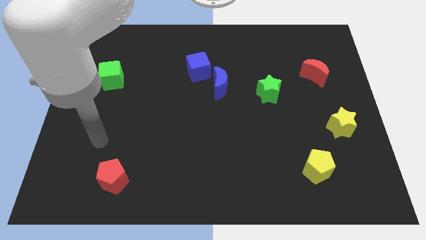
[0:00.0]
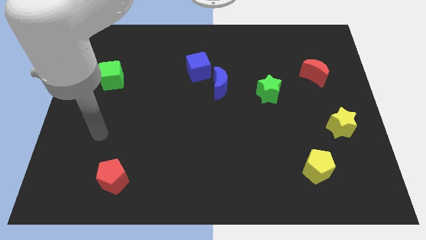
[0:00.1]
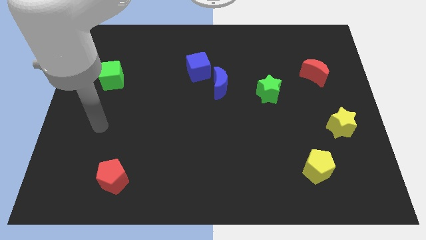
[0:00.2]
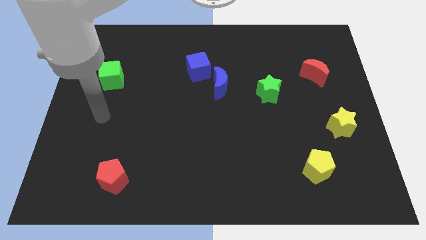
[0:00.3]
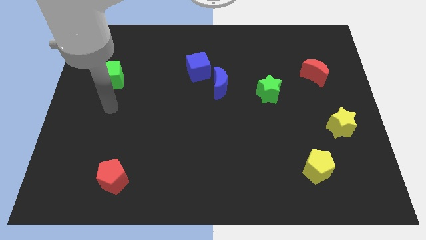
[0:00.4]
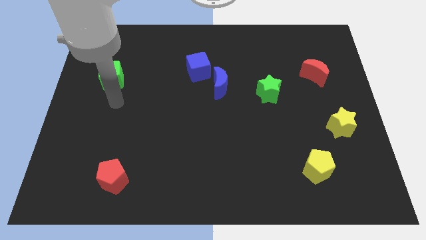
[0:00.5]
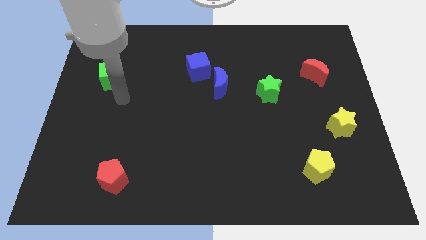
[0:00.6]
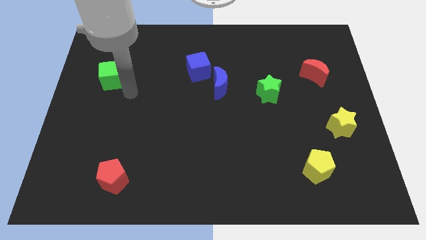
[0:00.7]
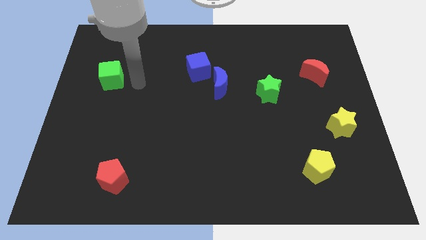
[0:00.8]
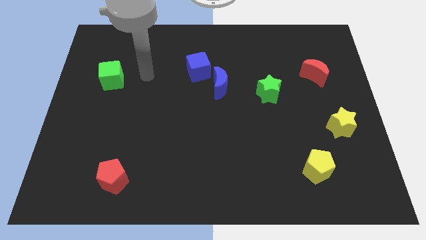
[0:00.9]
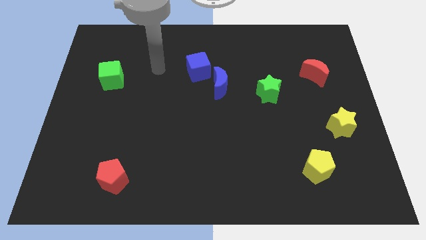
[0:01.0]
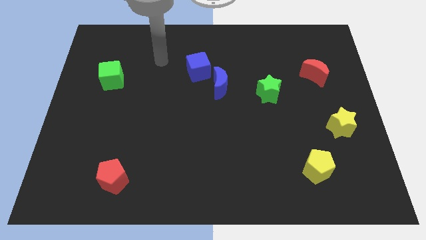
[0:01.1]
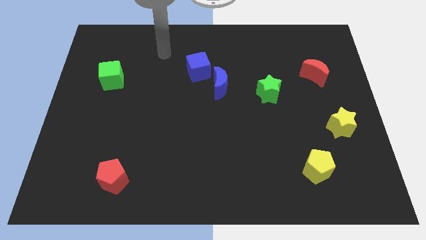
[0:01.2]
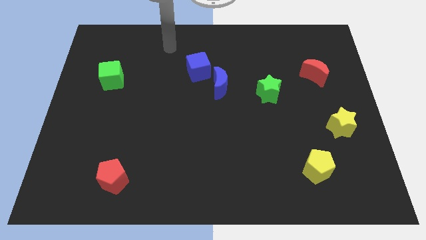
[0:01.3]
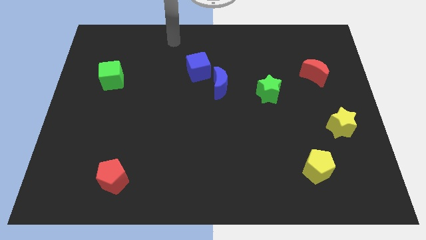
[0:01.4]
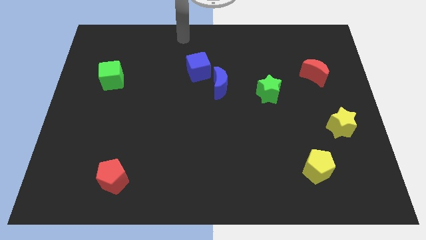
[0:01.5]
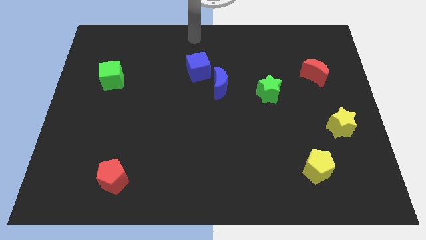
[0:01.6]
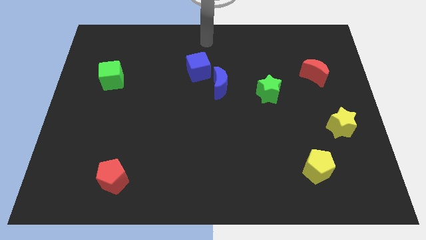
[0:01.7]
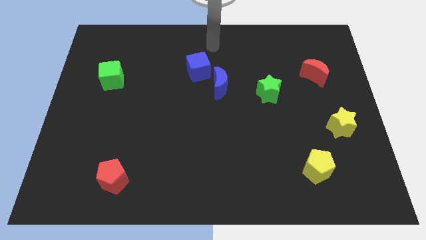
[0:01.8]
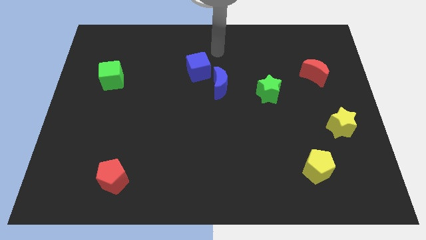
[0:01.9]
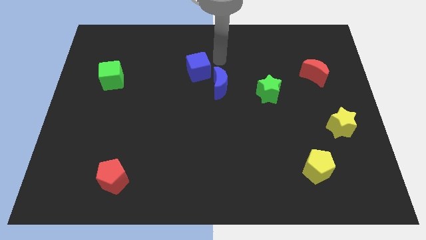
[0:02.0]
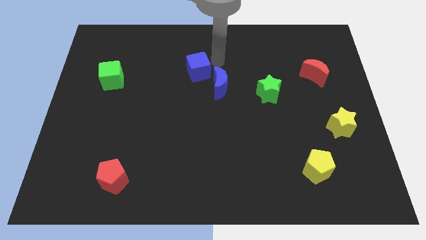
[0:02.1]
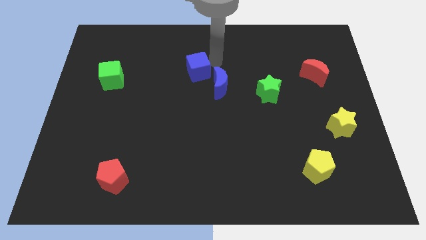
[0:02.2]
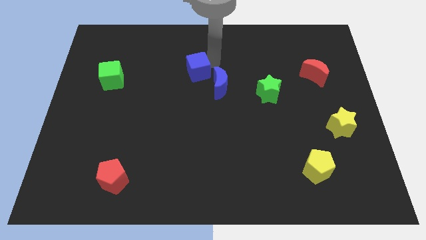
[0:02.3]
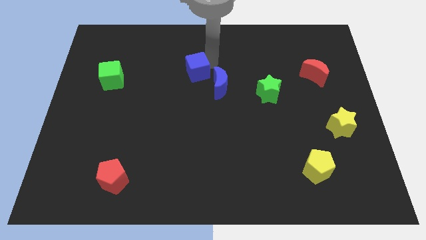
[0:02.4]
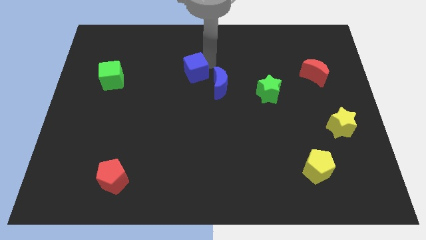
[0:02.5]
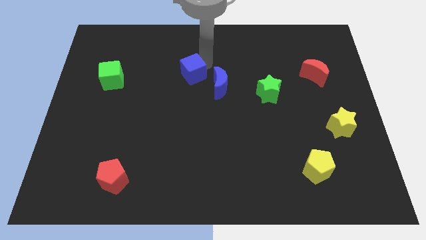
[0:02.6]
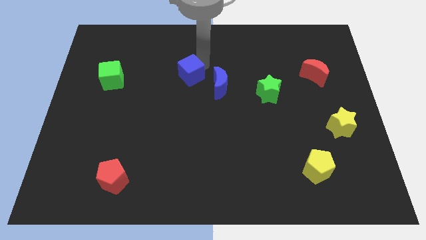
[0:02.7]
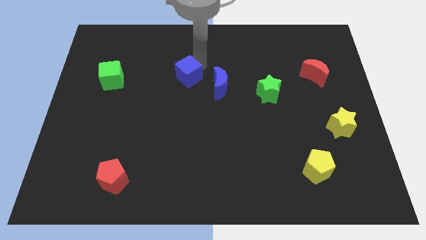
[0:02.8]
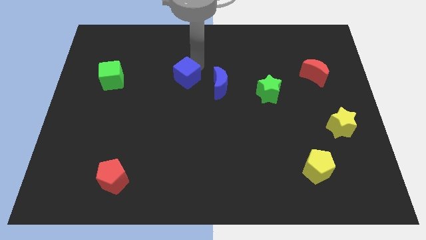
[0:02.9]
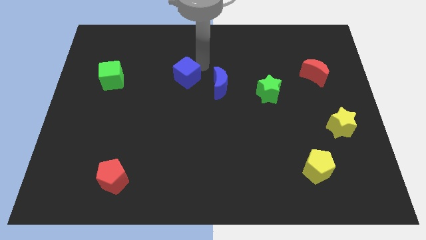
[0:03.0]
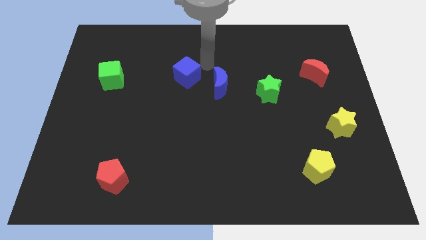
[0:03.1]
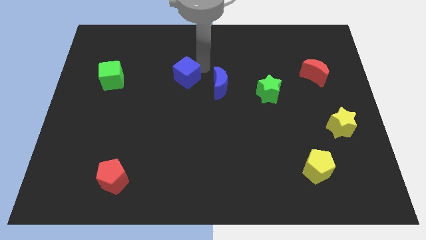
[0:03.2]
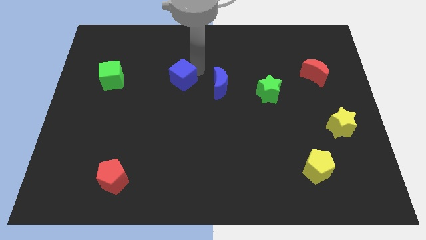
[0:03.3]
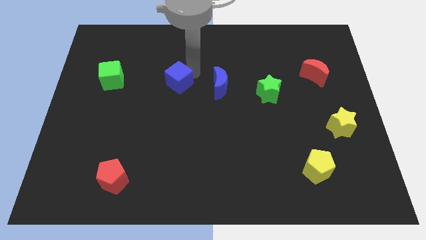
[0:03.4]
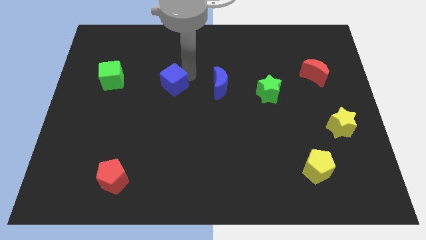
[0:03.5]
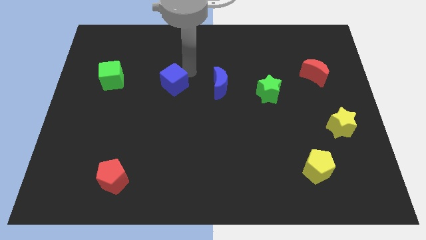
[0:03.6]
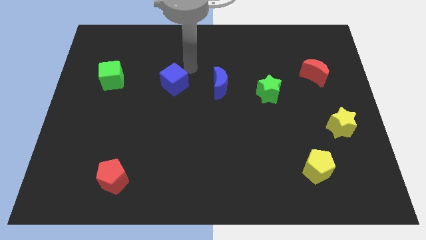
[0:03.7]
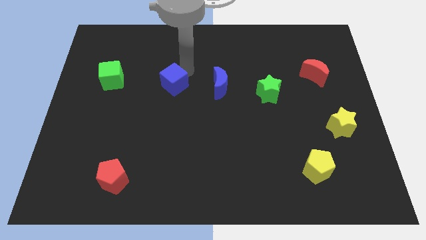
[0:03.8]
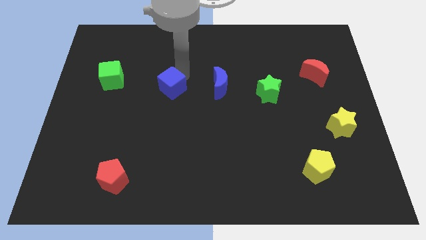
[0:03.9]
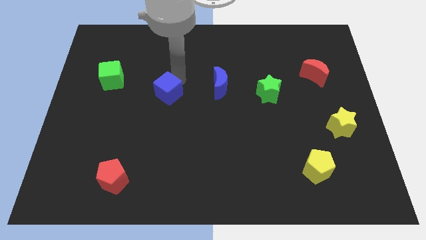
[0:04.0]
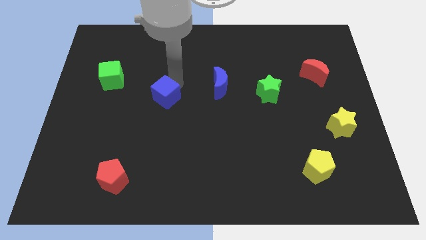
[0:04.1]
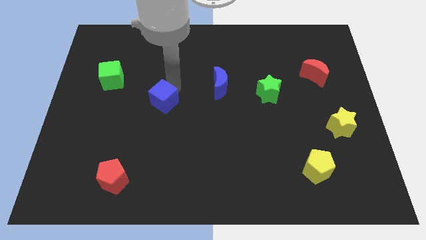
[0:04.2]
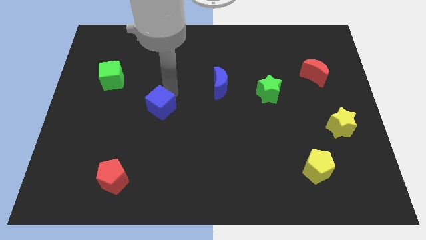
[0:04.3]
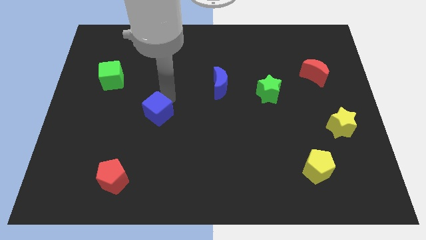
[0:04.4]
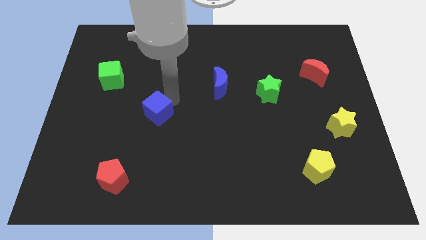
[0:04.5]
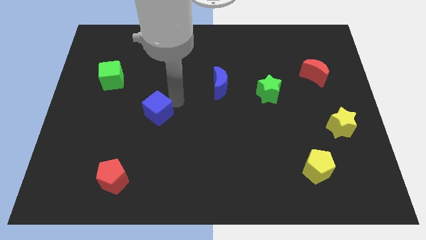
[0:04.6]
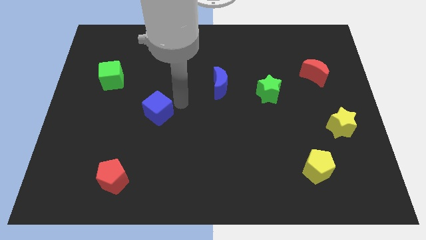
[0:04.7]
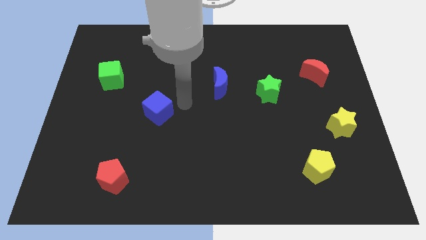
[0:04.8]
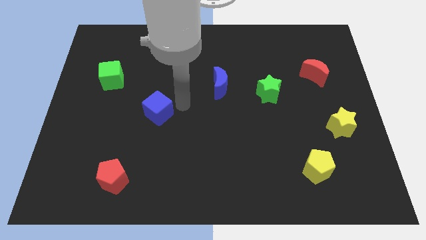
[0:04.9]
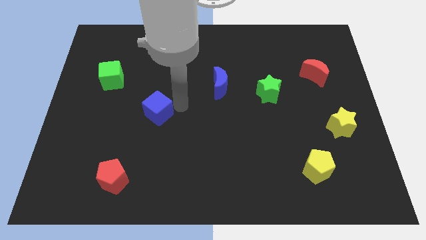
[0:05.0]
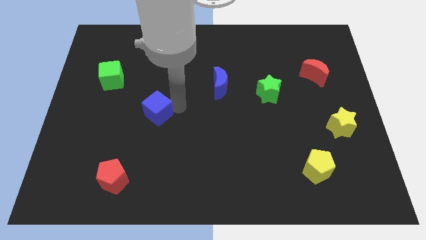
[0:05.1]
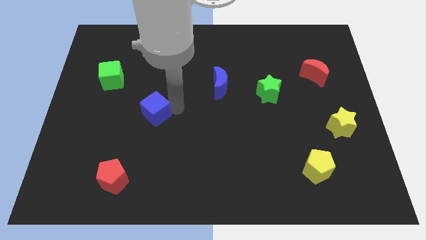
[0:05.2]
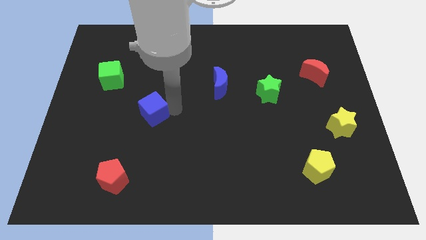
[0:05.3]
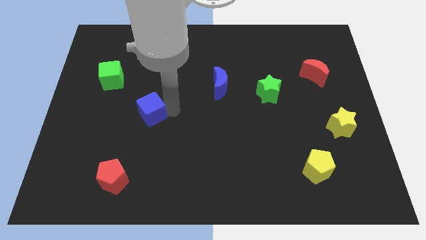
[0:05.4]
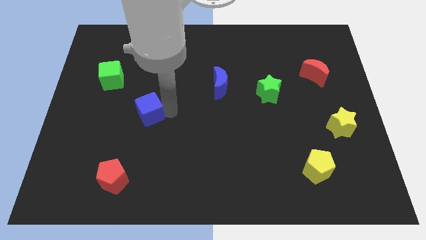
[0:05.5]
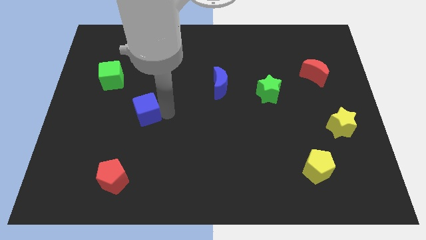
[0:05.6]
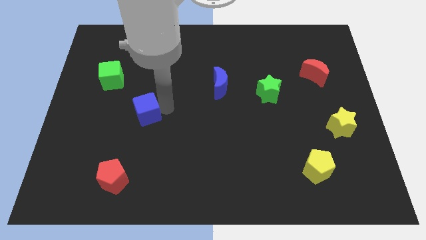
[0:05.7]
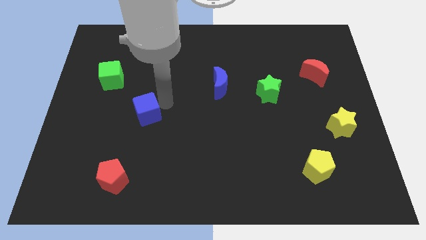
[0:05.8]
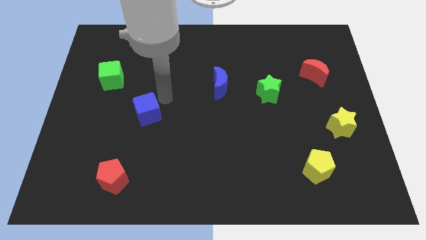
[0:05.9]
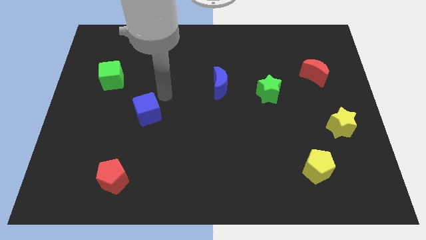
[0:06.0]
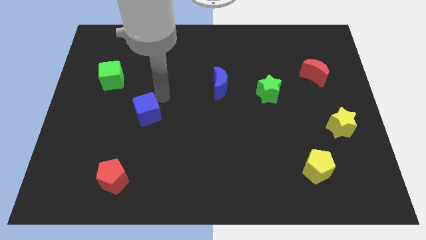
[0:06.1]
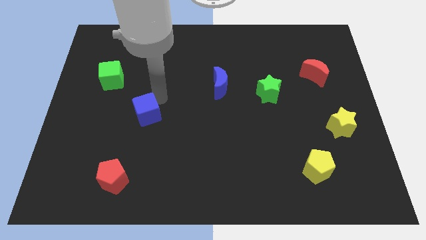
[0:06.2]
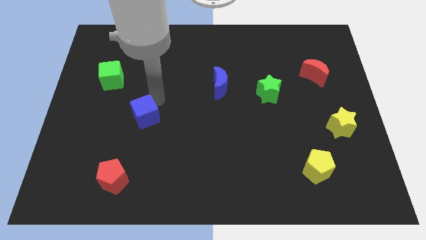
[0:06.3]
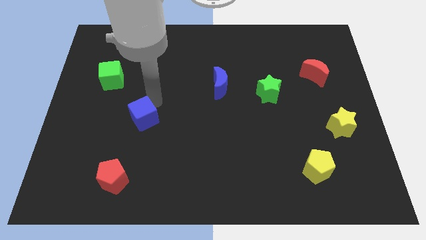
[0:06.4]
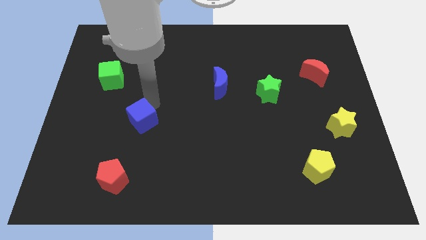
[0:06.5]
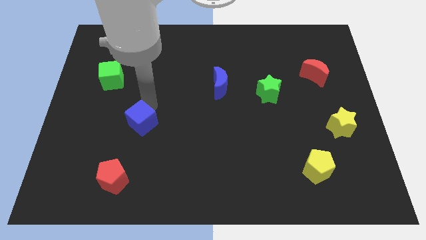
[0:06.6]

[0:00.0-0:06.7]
slide the blue cube downwards and then to the left

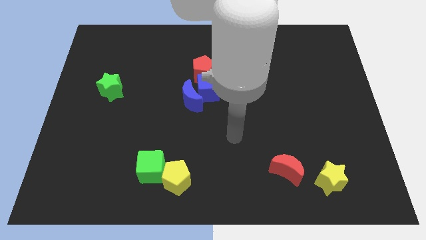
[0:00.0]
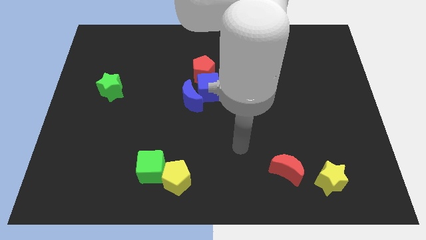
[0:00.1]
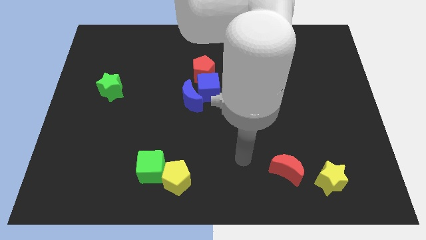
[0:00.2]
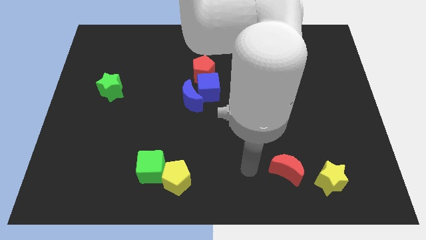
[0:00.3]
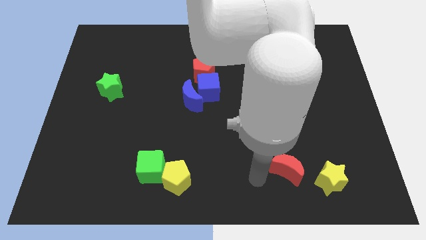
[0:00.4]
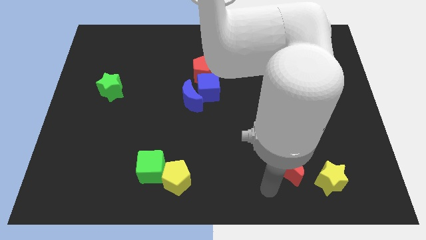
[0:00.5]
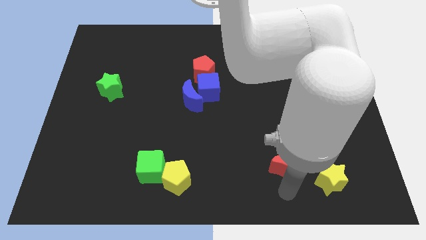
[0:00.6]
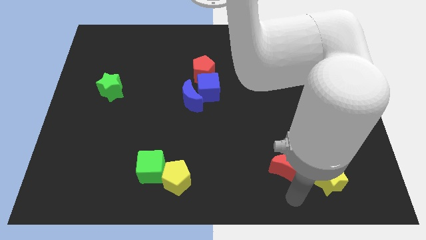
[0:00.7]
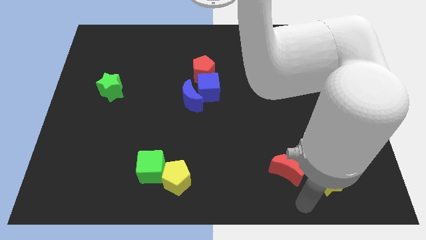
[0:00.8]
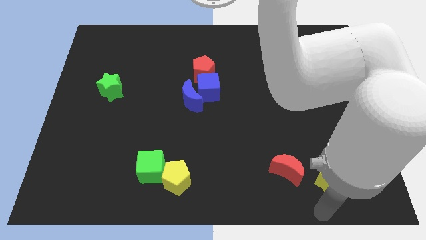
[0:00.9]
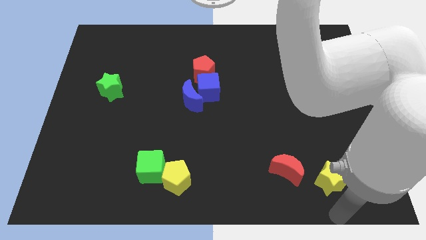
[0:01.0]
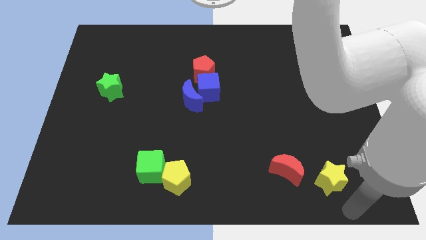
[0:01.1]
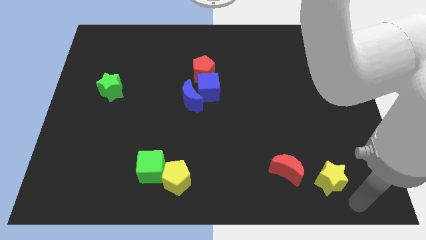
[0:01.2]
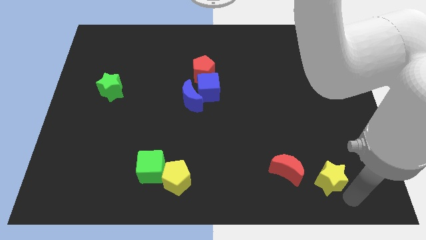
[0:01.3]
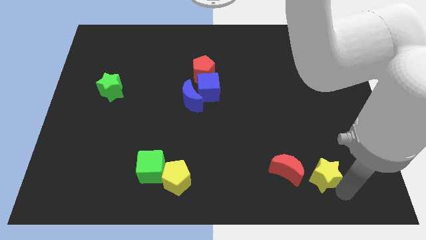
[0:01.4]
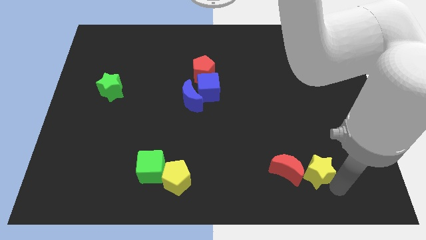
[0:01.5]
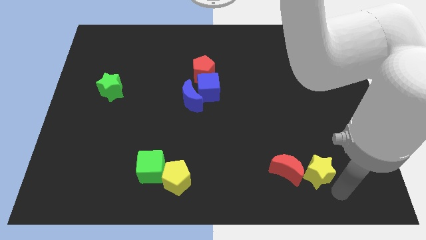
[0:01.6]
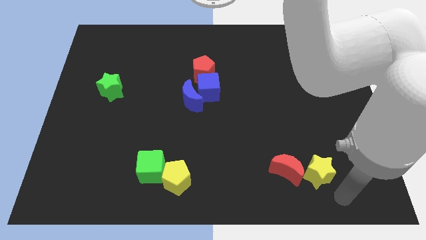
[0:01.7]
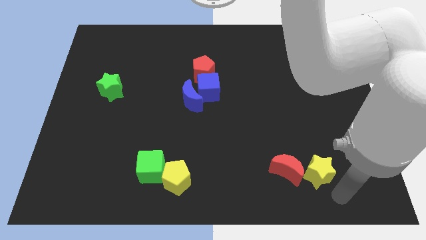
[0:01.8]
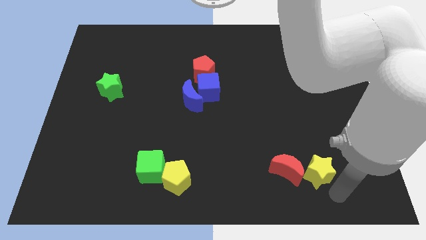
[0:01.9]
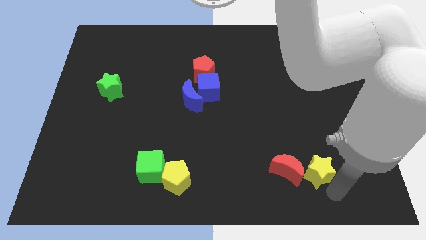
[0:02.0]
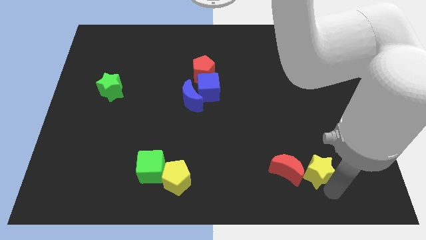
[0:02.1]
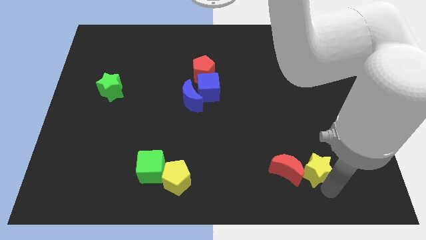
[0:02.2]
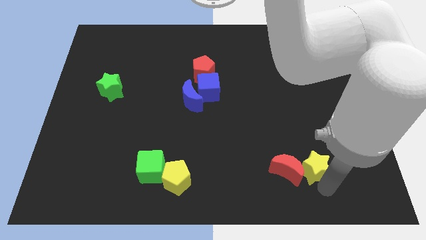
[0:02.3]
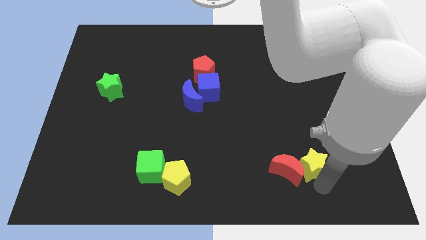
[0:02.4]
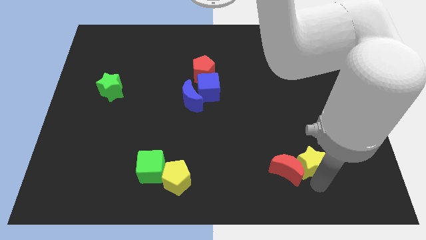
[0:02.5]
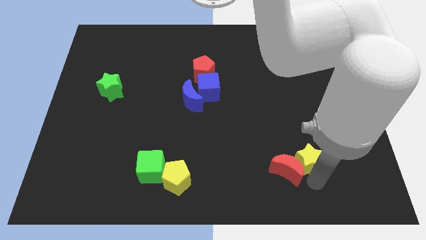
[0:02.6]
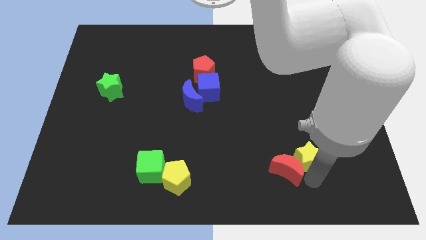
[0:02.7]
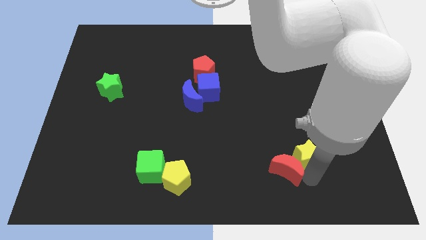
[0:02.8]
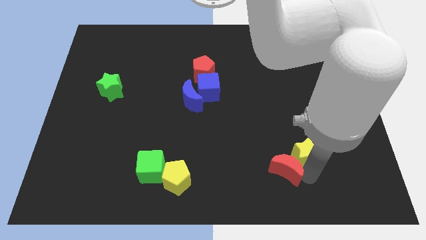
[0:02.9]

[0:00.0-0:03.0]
slightly push the yellow star upwards and to the left diagonally
